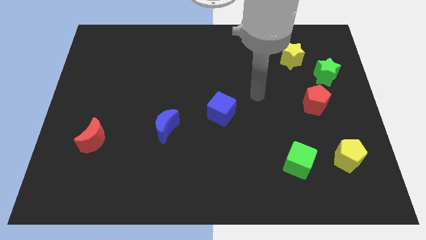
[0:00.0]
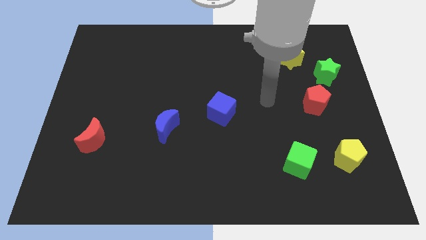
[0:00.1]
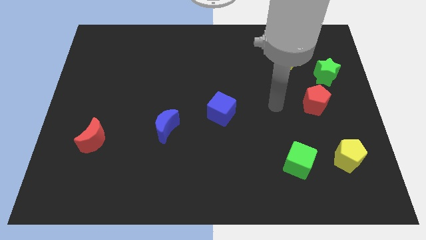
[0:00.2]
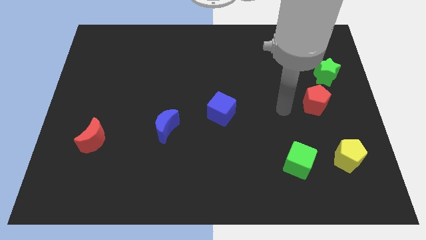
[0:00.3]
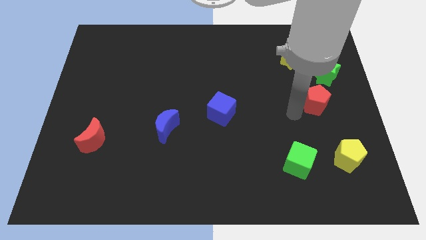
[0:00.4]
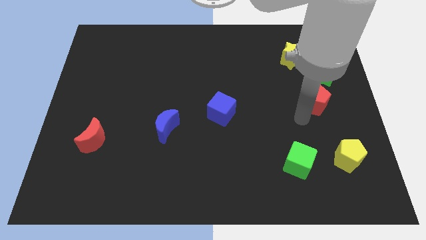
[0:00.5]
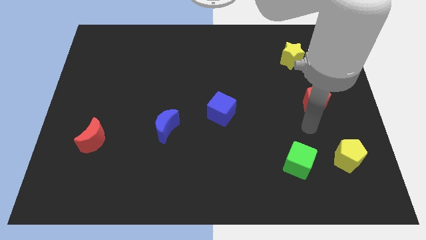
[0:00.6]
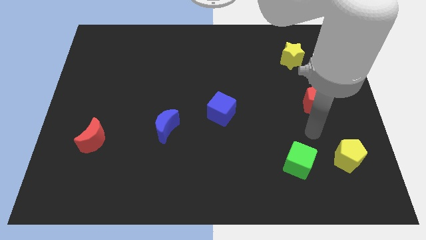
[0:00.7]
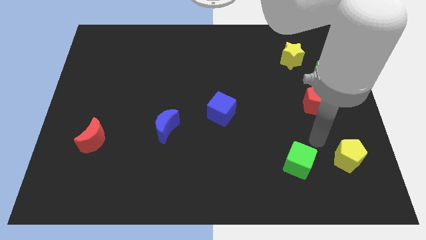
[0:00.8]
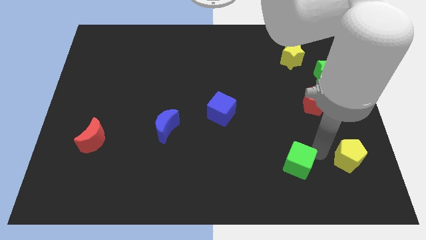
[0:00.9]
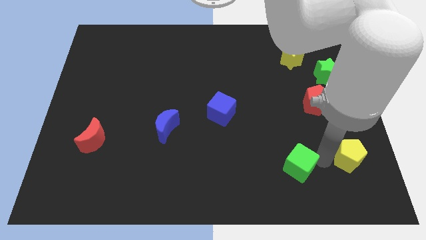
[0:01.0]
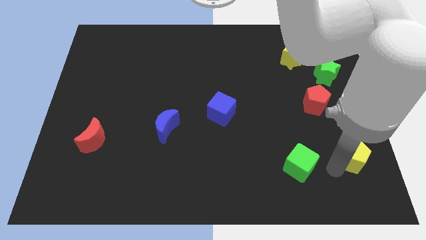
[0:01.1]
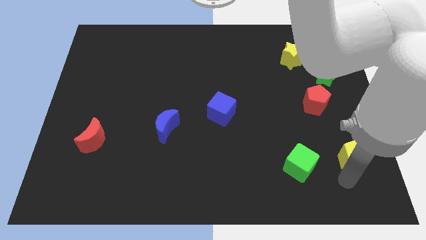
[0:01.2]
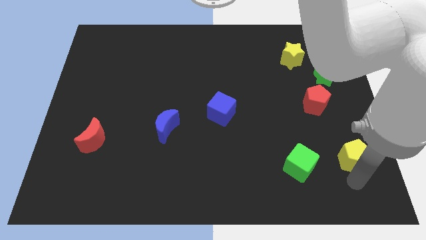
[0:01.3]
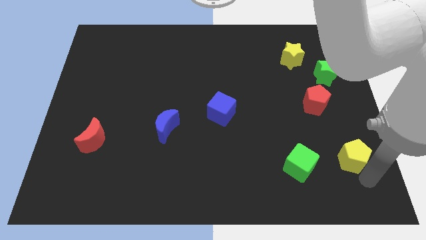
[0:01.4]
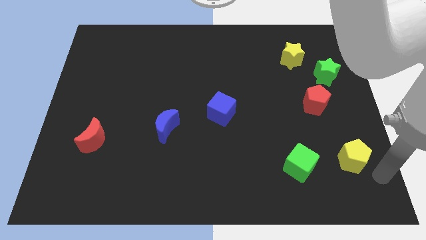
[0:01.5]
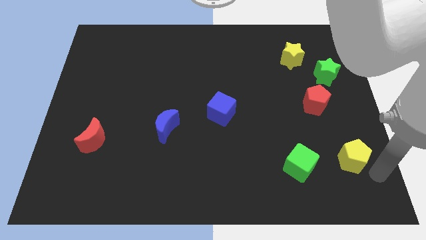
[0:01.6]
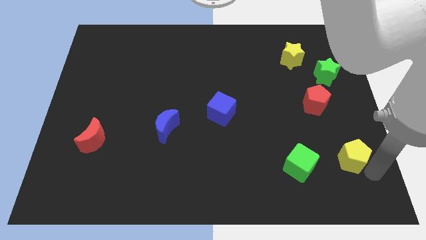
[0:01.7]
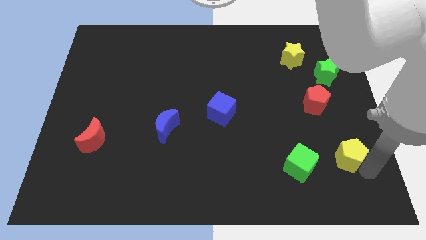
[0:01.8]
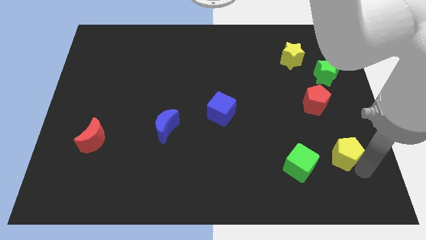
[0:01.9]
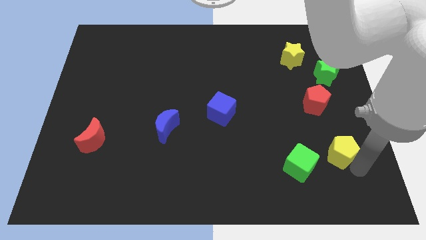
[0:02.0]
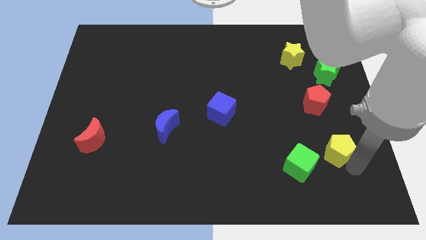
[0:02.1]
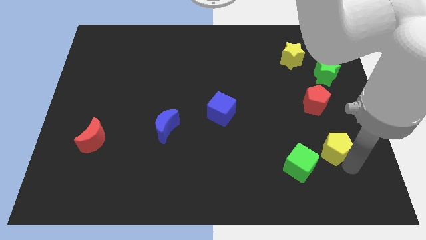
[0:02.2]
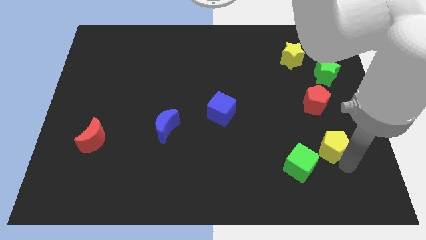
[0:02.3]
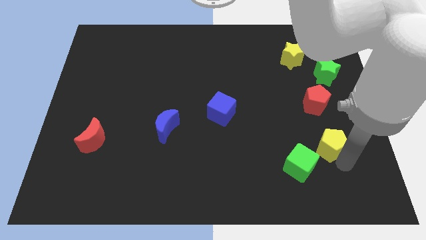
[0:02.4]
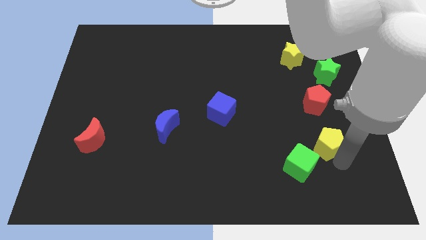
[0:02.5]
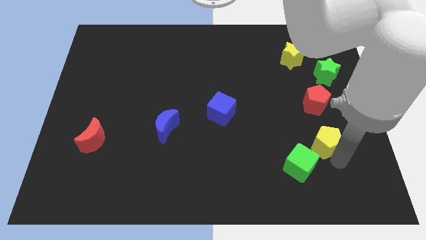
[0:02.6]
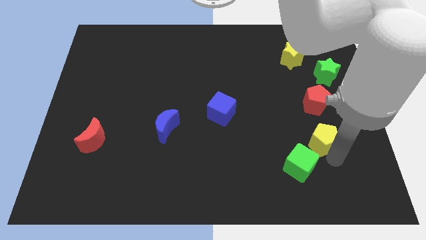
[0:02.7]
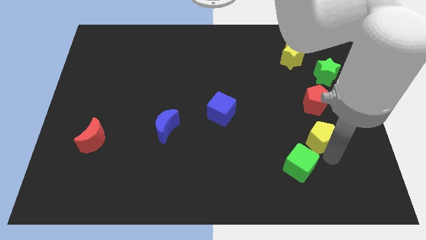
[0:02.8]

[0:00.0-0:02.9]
push the yellow pentagon upwards and then left a little bit

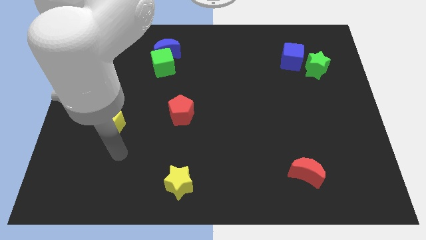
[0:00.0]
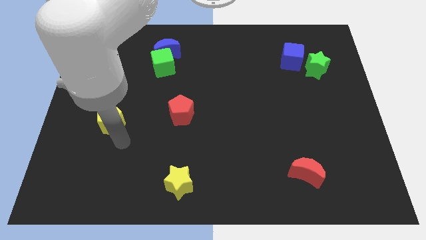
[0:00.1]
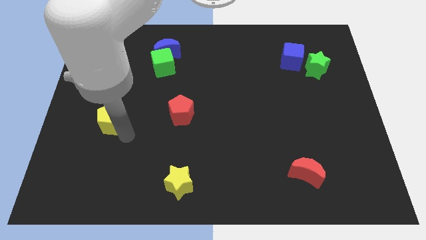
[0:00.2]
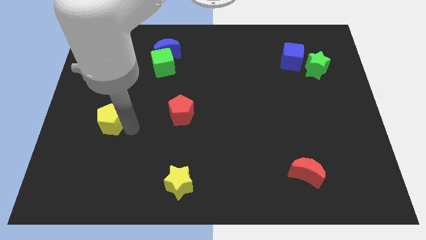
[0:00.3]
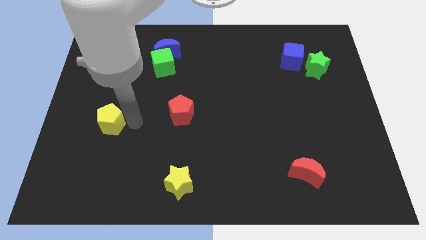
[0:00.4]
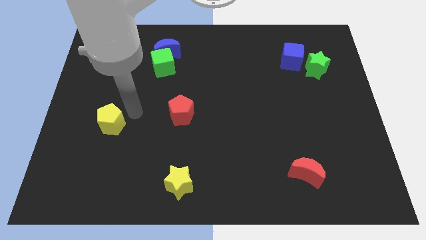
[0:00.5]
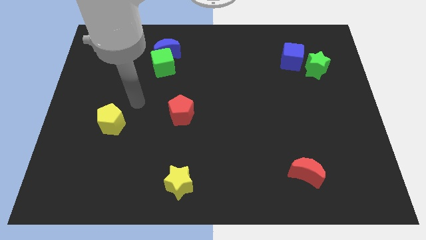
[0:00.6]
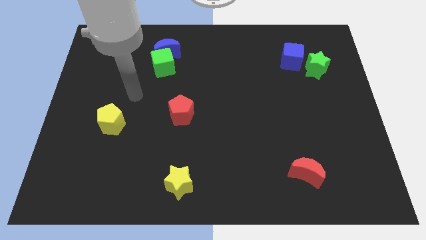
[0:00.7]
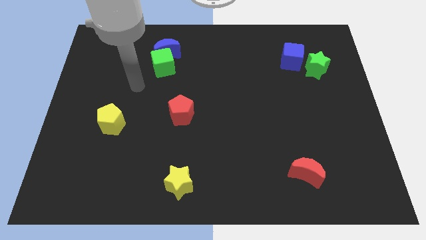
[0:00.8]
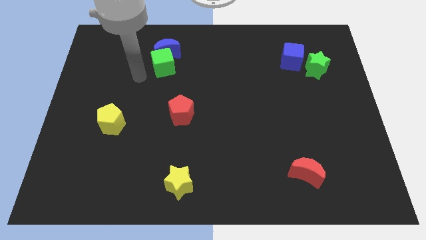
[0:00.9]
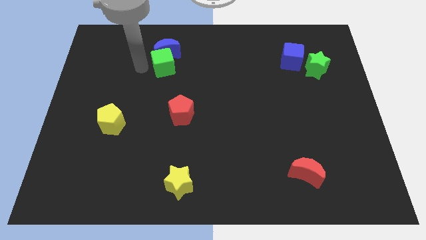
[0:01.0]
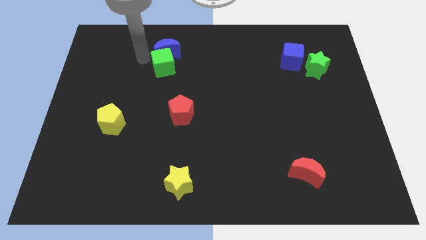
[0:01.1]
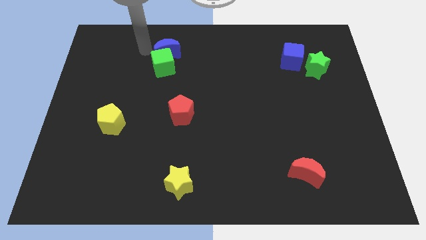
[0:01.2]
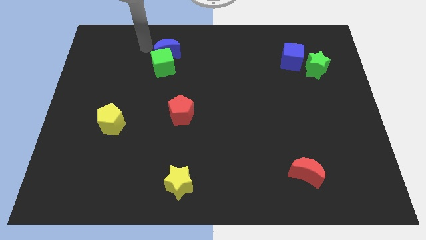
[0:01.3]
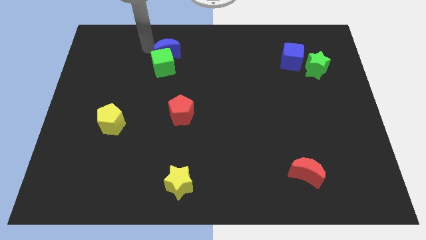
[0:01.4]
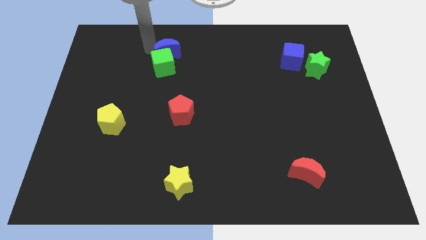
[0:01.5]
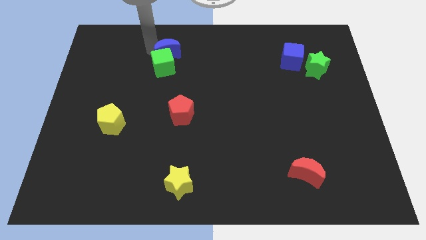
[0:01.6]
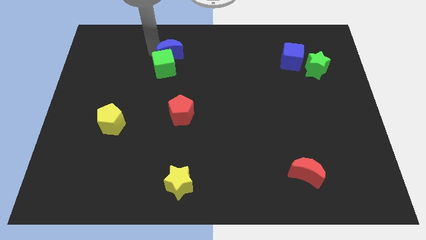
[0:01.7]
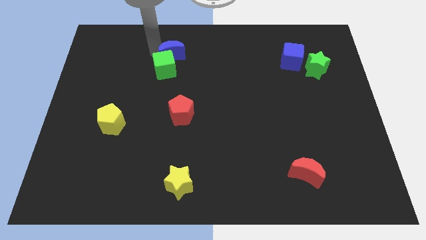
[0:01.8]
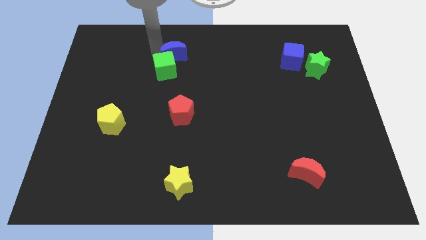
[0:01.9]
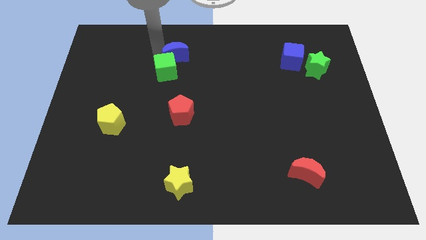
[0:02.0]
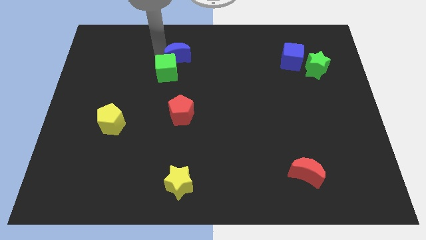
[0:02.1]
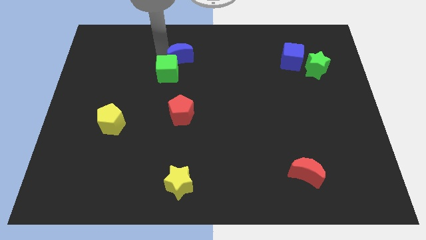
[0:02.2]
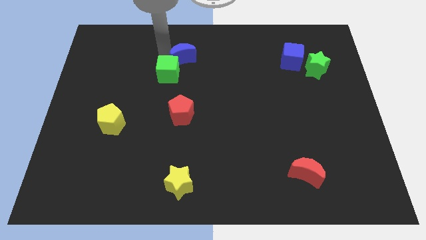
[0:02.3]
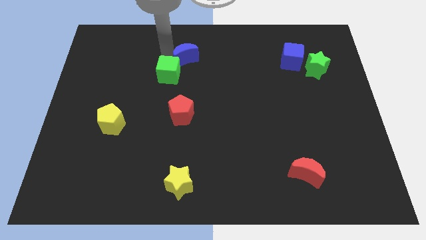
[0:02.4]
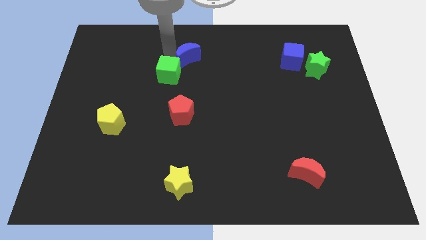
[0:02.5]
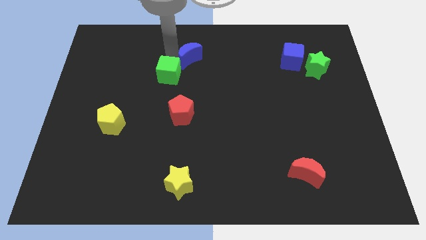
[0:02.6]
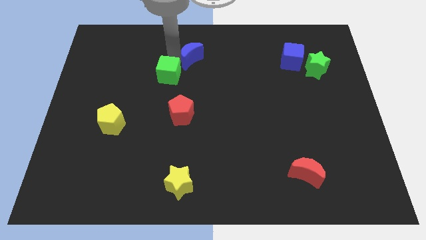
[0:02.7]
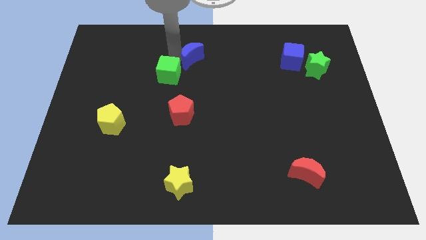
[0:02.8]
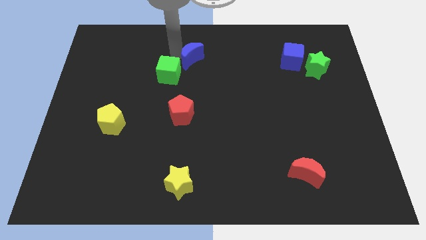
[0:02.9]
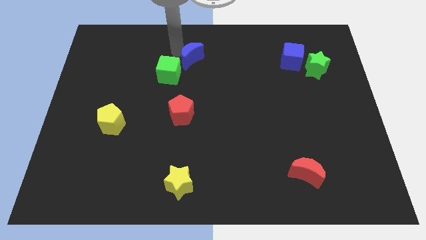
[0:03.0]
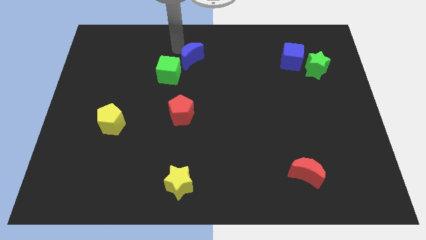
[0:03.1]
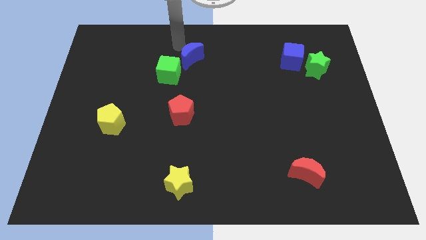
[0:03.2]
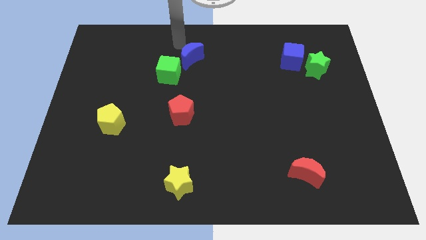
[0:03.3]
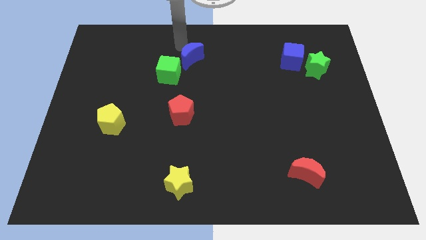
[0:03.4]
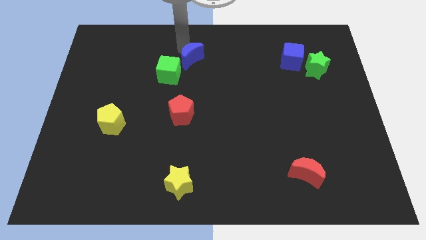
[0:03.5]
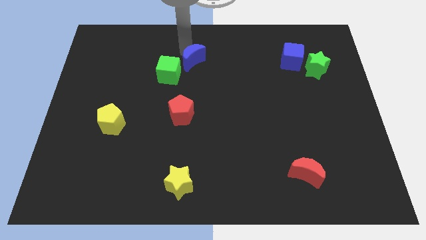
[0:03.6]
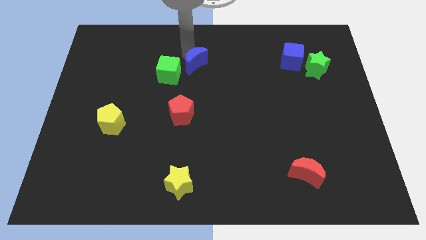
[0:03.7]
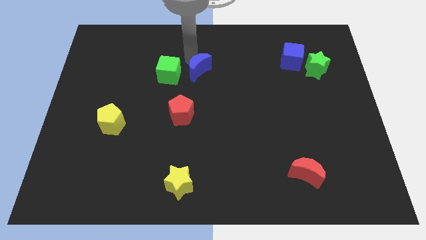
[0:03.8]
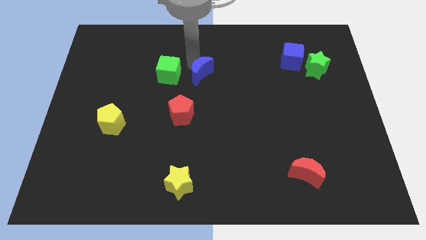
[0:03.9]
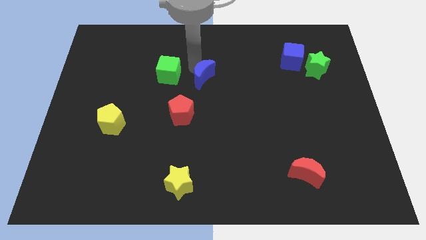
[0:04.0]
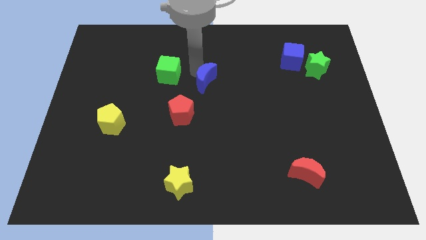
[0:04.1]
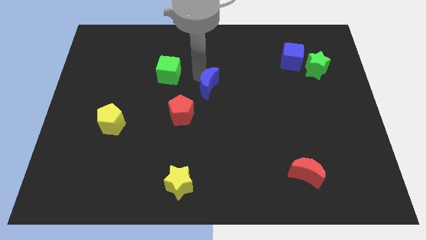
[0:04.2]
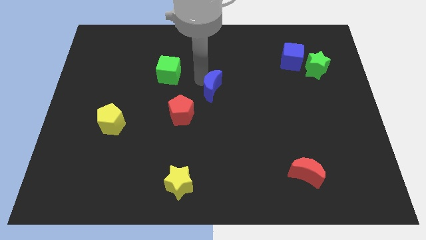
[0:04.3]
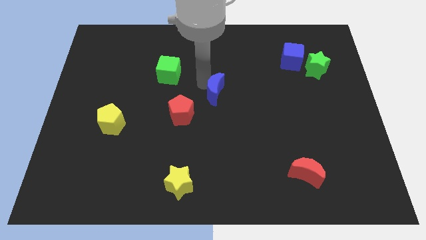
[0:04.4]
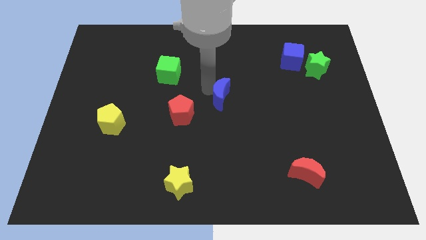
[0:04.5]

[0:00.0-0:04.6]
slide the blue moon downwards and to the right diagonally

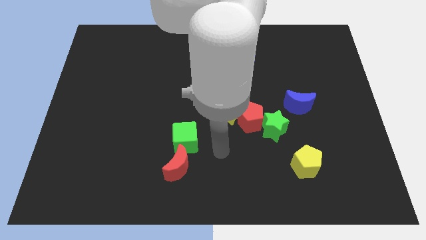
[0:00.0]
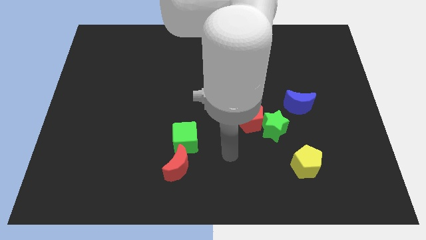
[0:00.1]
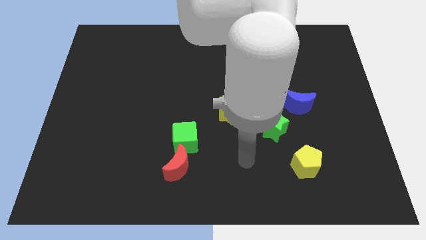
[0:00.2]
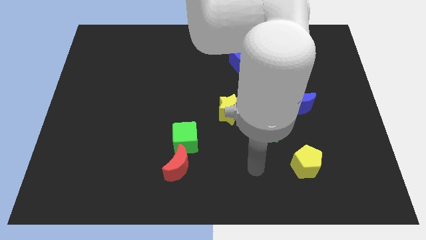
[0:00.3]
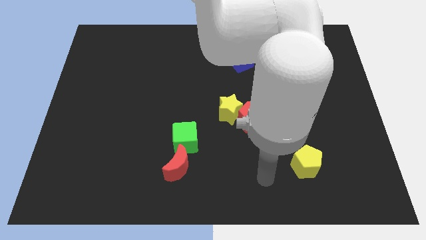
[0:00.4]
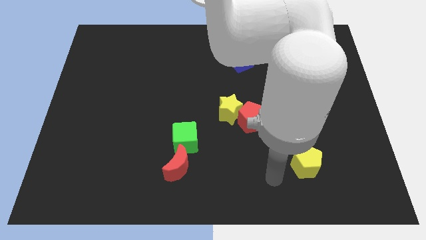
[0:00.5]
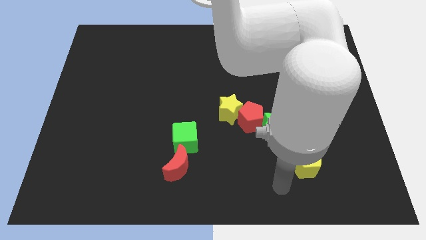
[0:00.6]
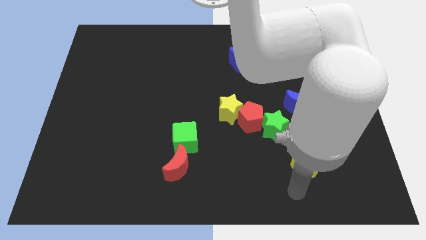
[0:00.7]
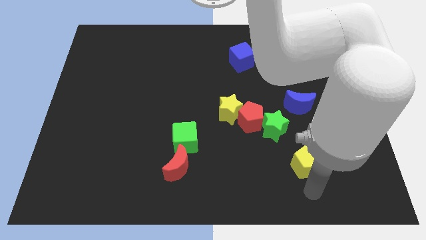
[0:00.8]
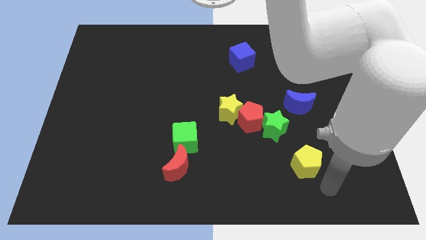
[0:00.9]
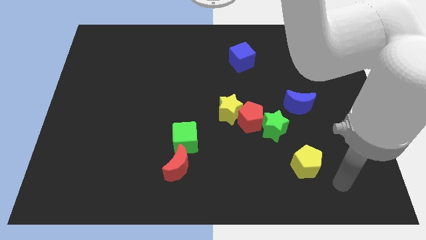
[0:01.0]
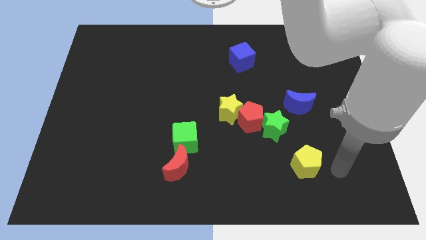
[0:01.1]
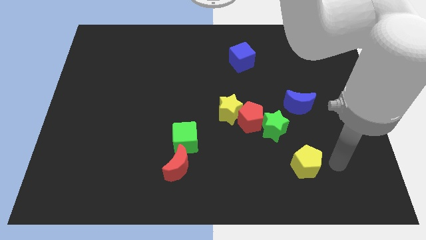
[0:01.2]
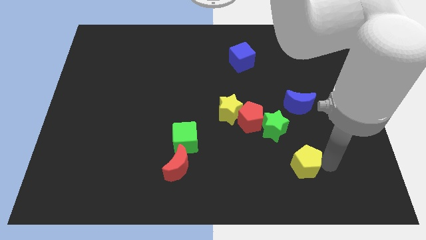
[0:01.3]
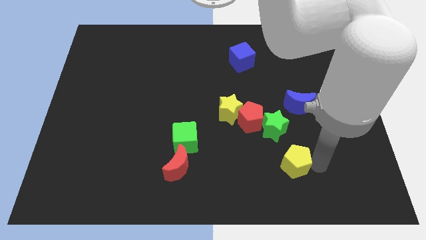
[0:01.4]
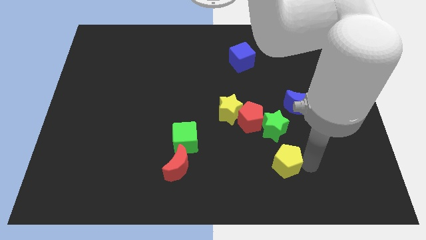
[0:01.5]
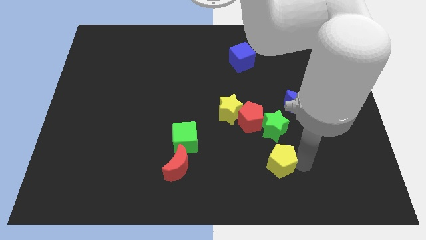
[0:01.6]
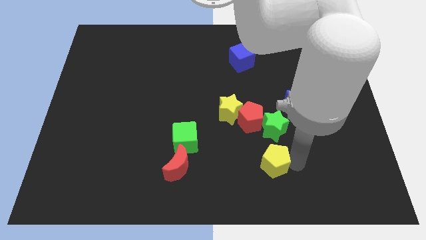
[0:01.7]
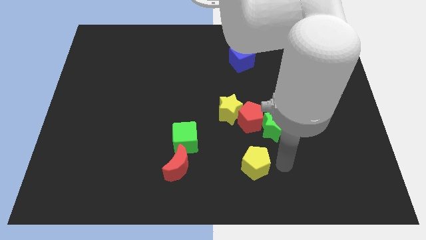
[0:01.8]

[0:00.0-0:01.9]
push the yellow pentagon somewhat left
